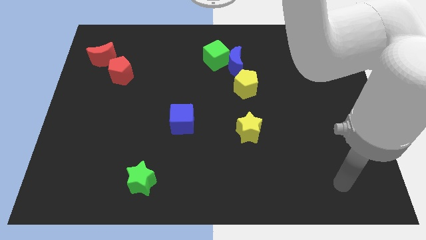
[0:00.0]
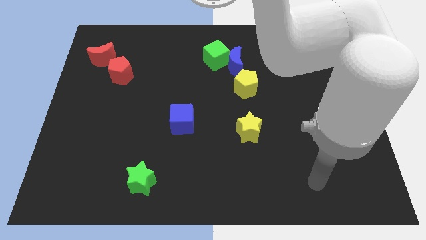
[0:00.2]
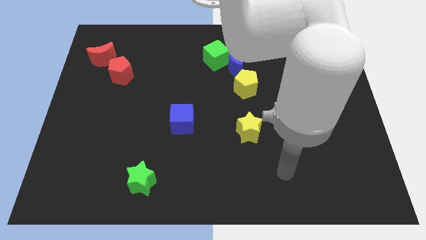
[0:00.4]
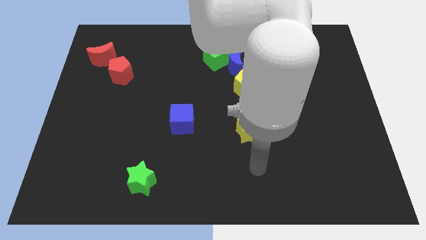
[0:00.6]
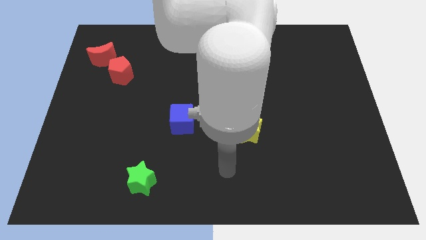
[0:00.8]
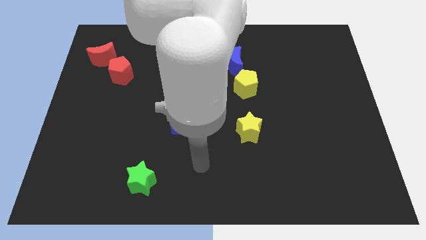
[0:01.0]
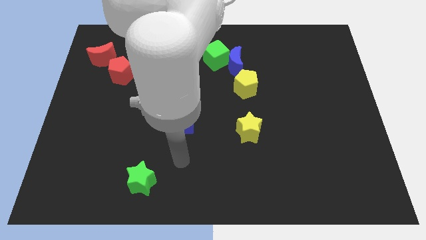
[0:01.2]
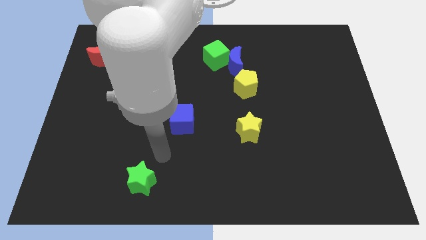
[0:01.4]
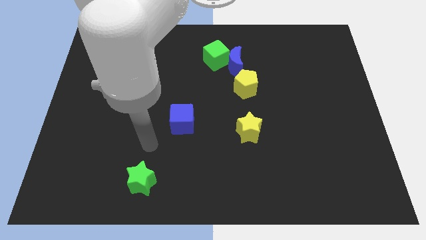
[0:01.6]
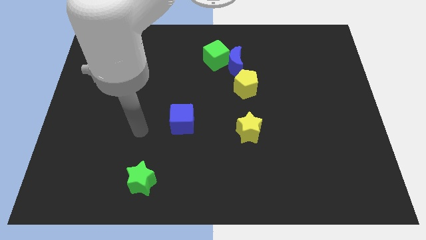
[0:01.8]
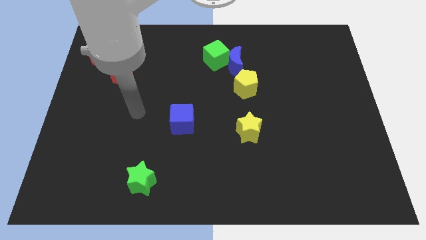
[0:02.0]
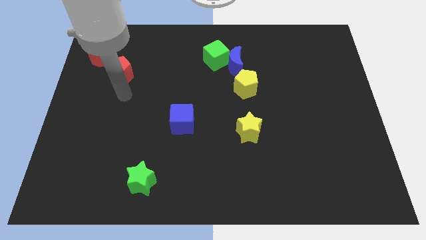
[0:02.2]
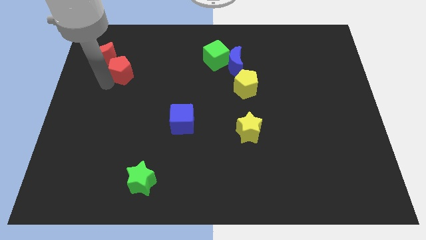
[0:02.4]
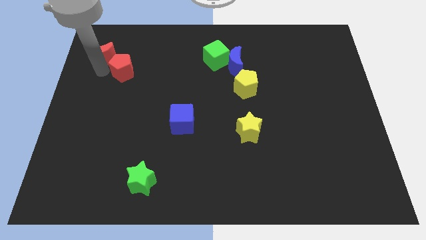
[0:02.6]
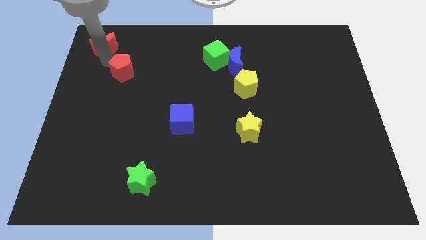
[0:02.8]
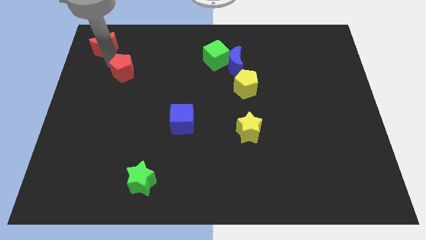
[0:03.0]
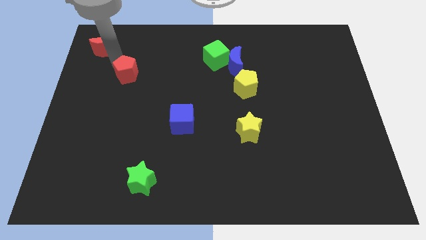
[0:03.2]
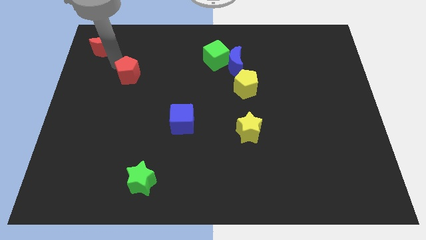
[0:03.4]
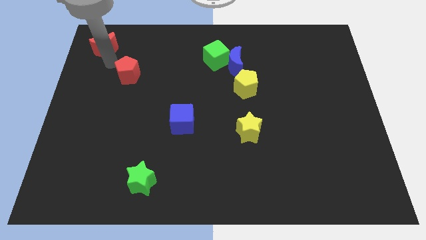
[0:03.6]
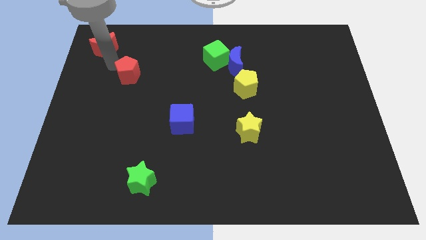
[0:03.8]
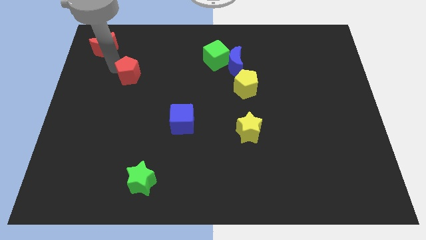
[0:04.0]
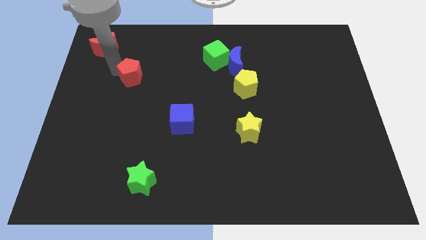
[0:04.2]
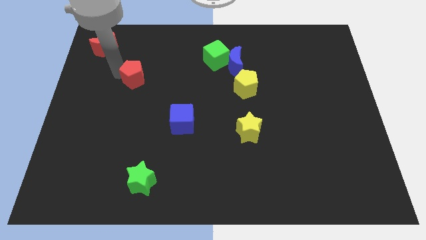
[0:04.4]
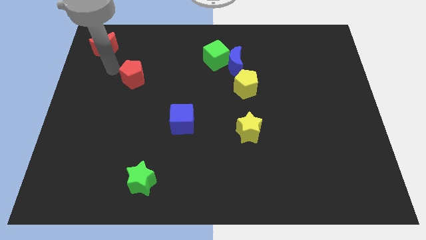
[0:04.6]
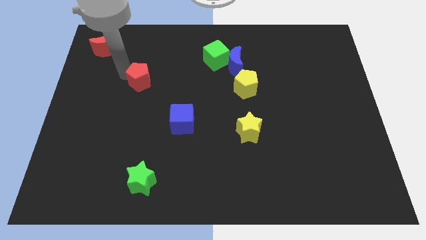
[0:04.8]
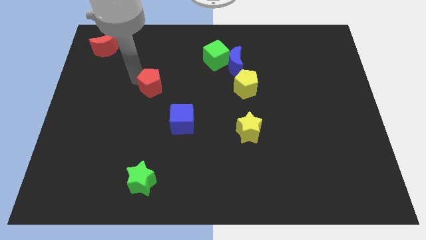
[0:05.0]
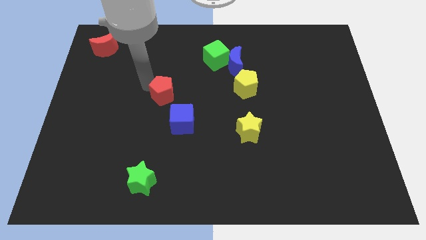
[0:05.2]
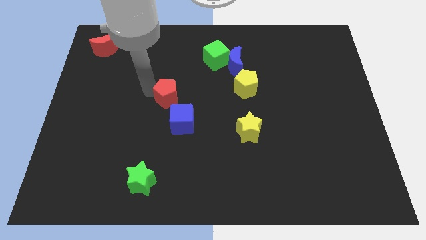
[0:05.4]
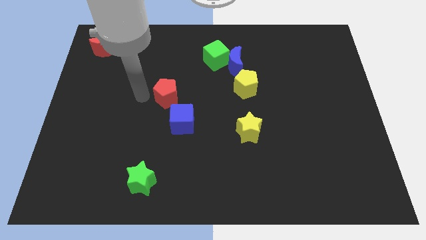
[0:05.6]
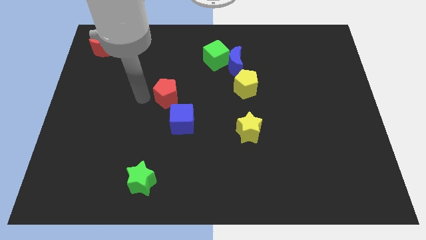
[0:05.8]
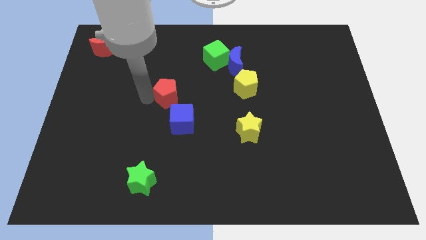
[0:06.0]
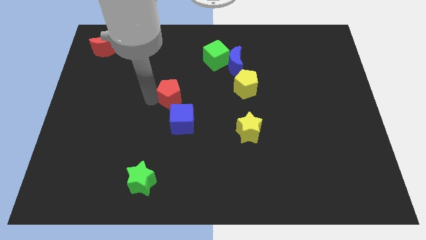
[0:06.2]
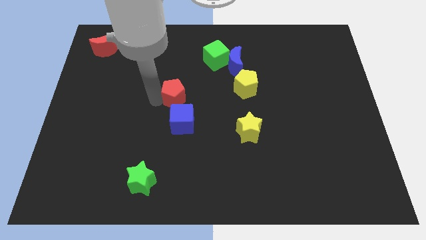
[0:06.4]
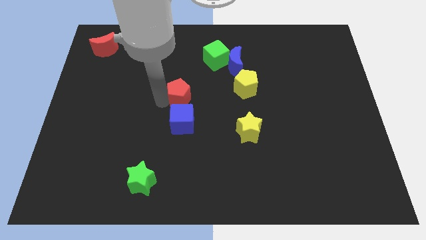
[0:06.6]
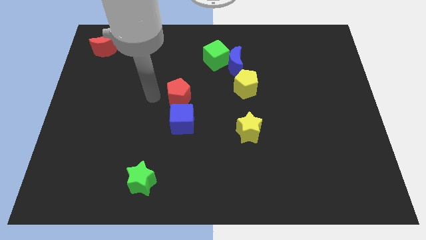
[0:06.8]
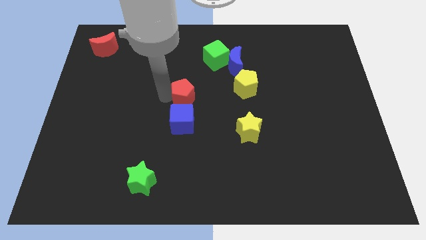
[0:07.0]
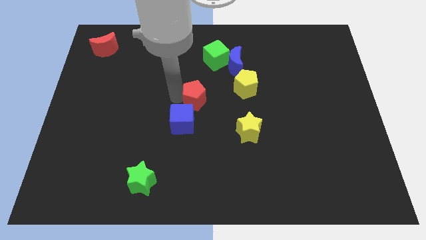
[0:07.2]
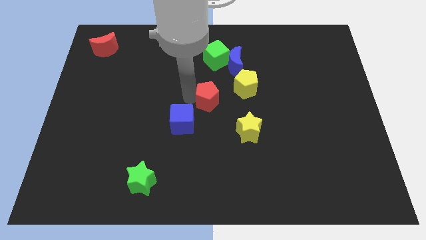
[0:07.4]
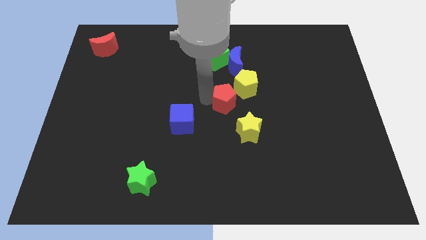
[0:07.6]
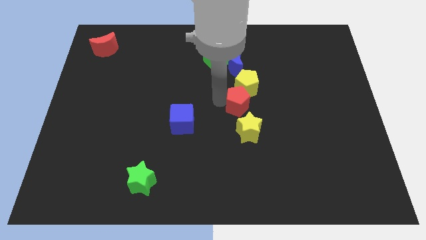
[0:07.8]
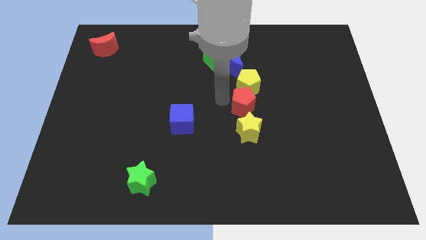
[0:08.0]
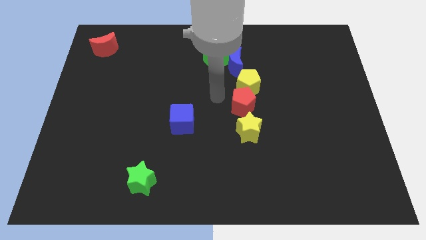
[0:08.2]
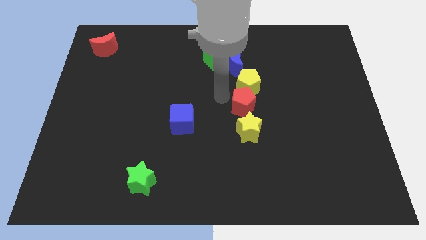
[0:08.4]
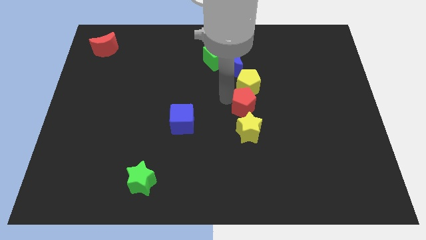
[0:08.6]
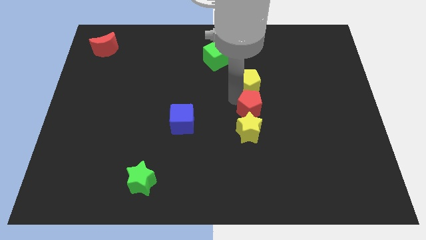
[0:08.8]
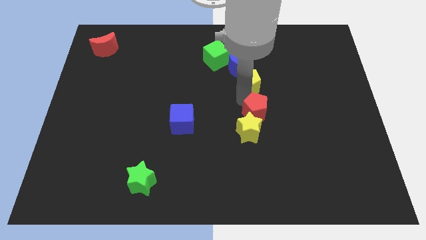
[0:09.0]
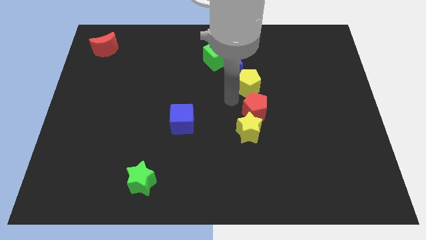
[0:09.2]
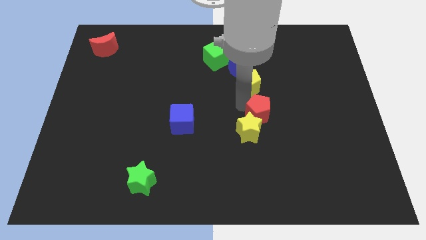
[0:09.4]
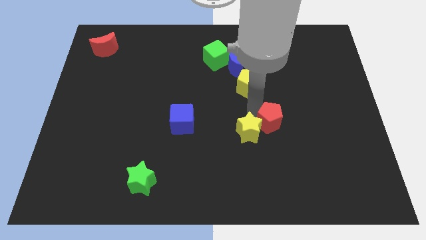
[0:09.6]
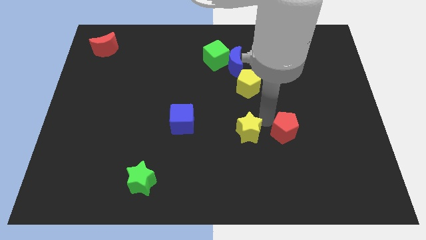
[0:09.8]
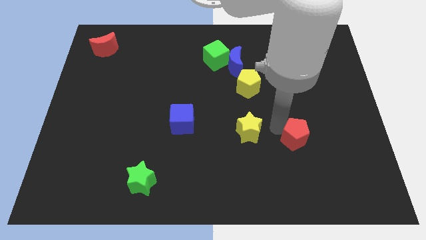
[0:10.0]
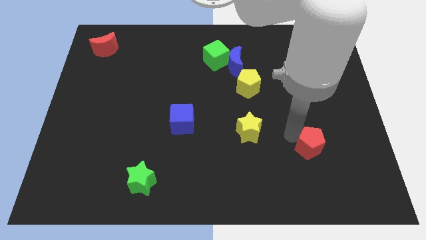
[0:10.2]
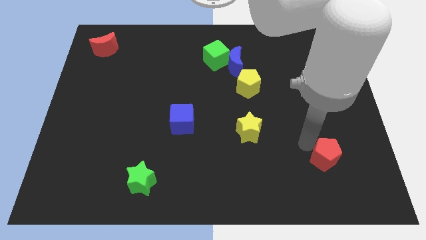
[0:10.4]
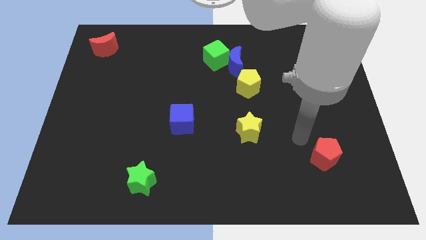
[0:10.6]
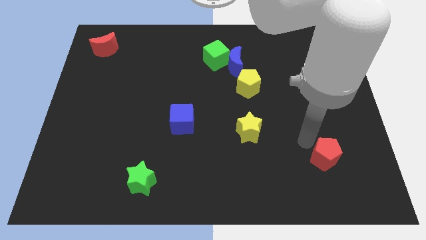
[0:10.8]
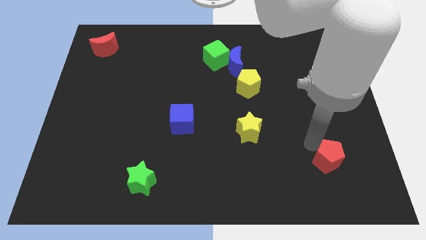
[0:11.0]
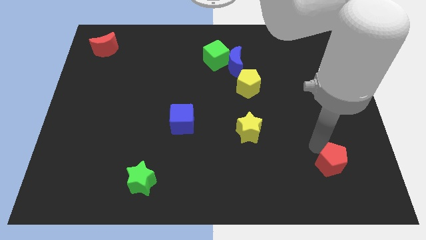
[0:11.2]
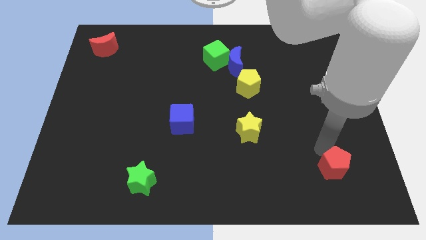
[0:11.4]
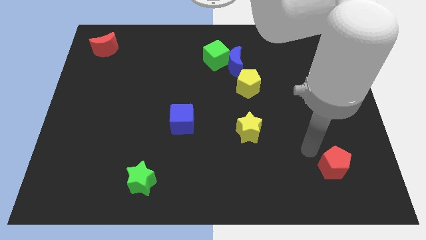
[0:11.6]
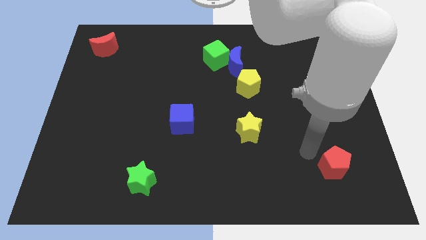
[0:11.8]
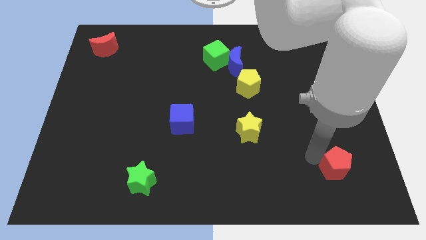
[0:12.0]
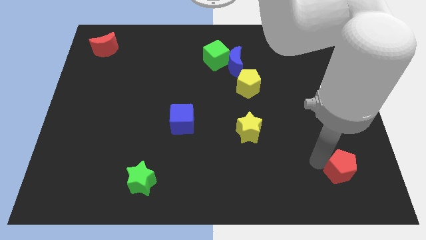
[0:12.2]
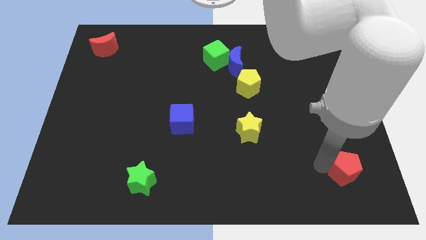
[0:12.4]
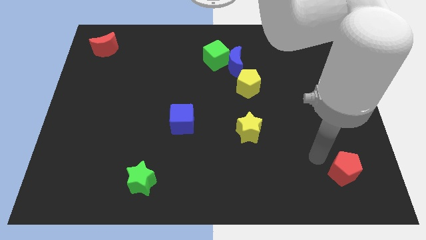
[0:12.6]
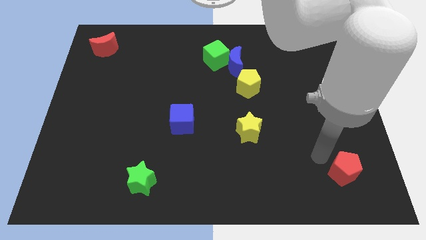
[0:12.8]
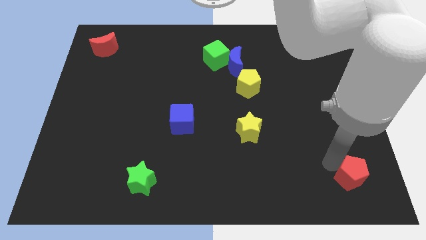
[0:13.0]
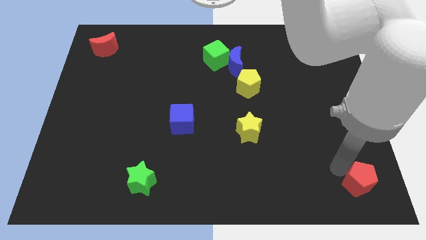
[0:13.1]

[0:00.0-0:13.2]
push the red pentagon to the lower right corner
